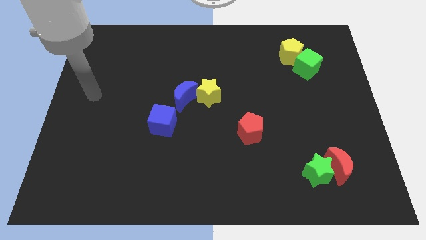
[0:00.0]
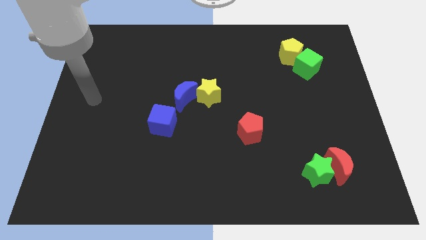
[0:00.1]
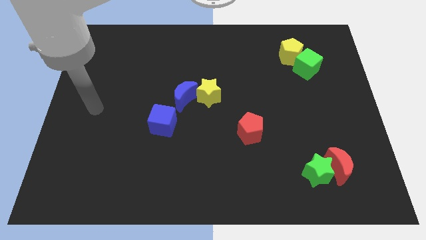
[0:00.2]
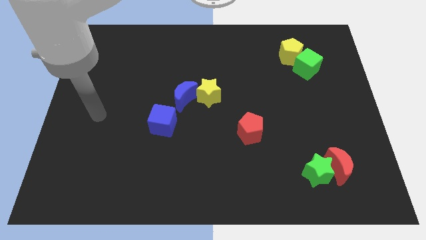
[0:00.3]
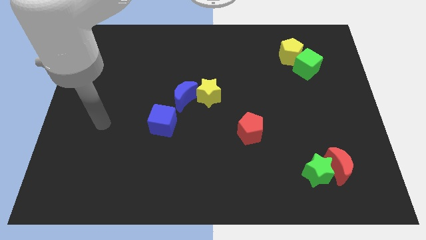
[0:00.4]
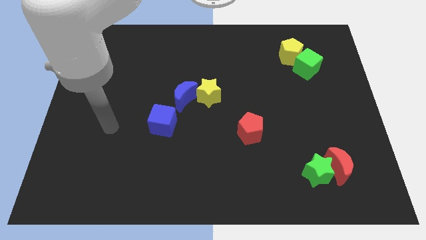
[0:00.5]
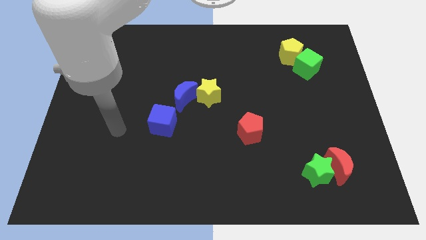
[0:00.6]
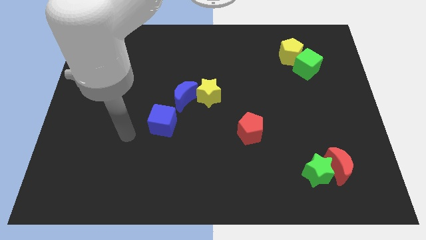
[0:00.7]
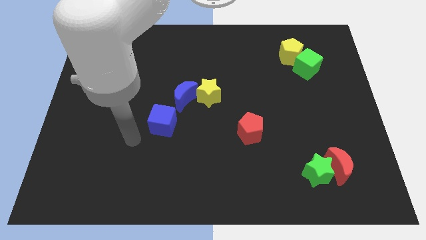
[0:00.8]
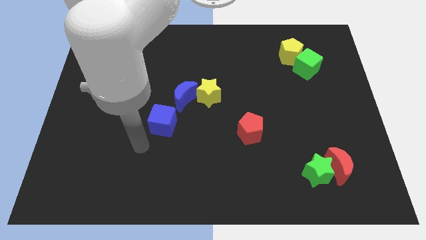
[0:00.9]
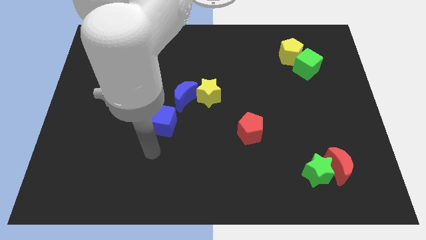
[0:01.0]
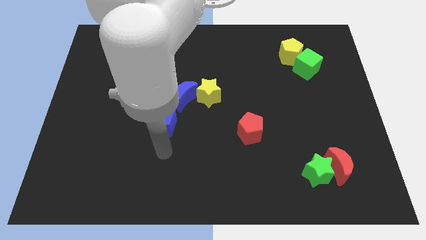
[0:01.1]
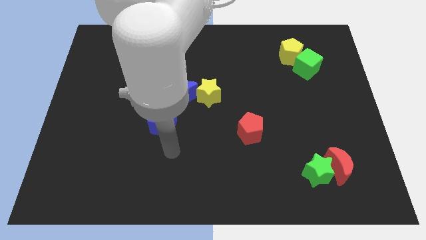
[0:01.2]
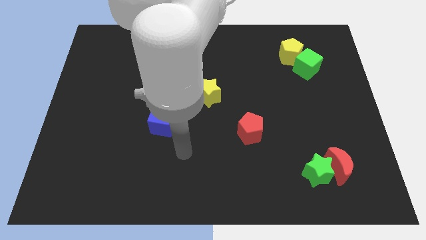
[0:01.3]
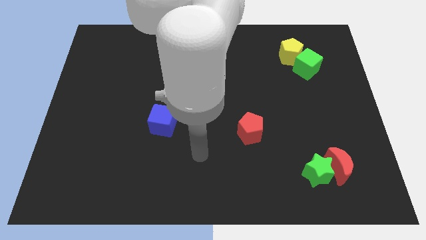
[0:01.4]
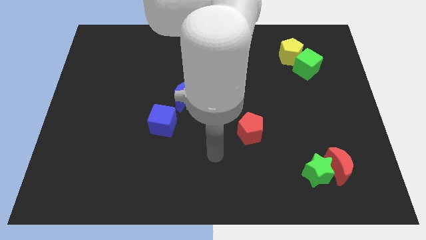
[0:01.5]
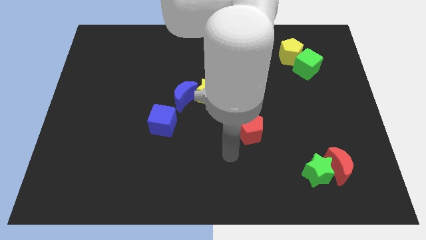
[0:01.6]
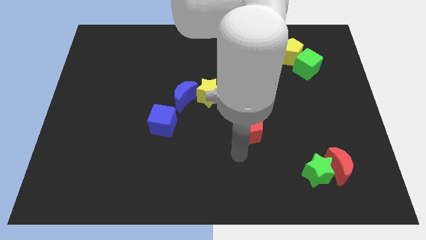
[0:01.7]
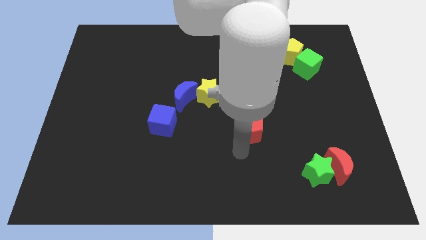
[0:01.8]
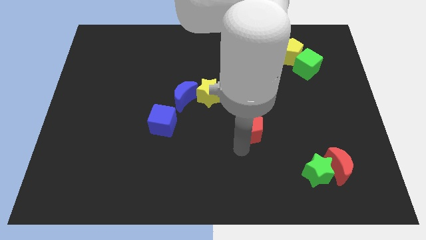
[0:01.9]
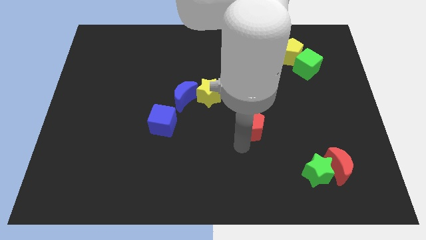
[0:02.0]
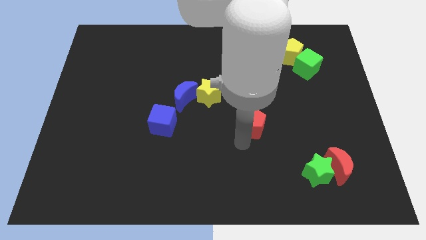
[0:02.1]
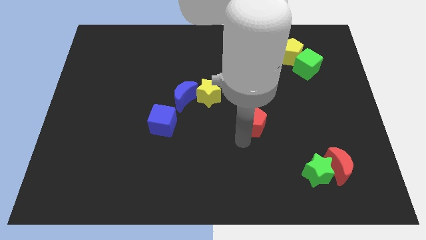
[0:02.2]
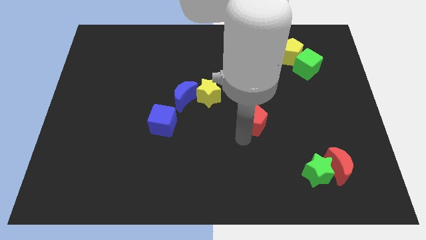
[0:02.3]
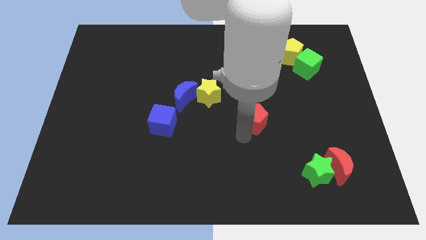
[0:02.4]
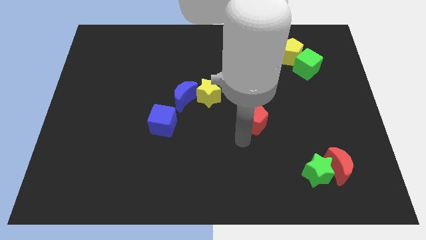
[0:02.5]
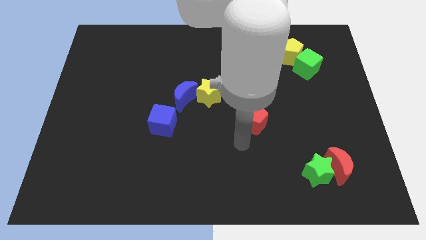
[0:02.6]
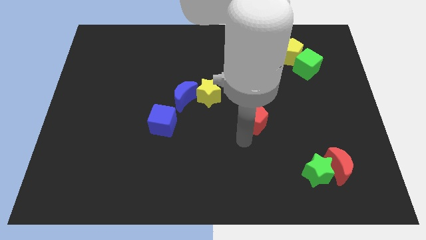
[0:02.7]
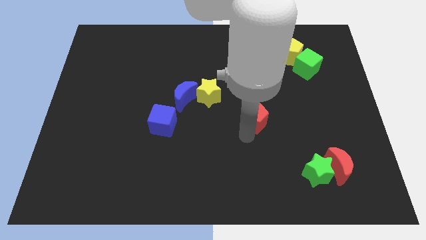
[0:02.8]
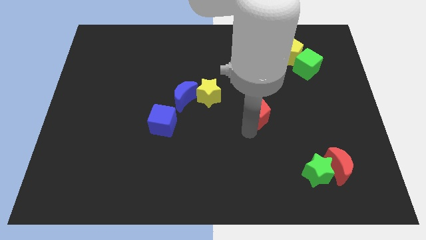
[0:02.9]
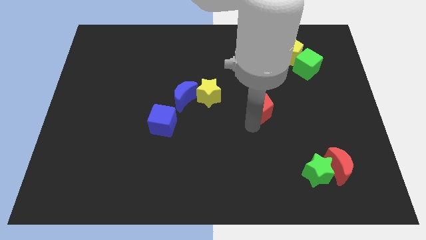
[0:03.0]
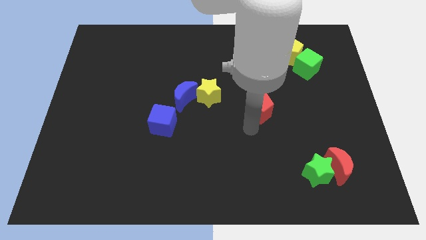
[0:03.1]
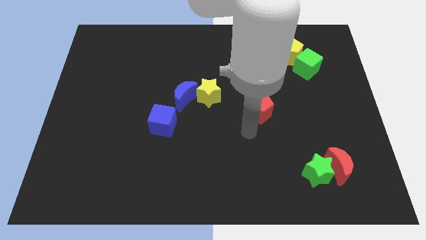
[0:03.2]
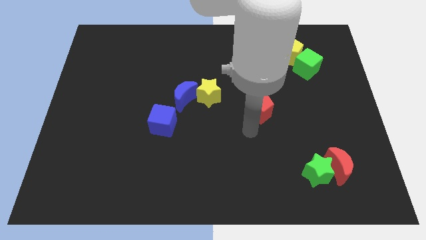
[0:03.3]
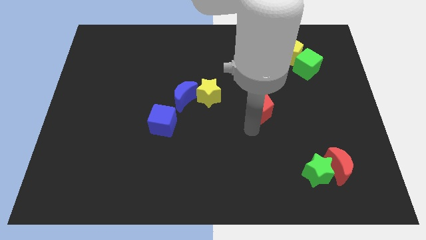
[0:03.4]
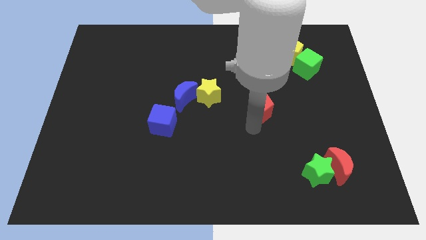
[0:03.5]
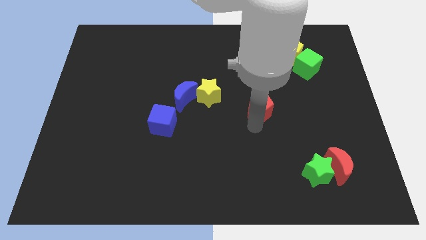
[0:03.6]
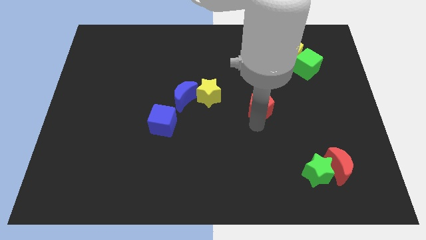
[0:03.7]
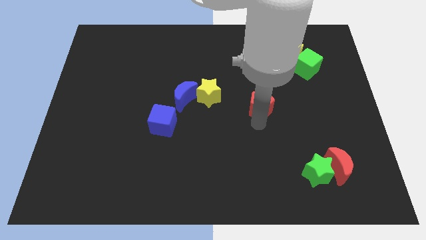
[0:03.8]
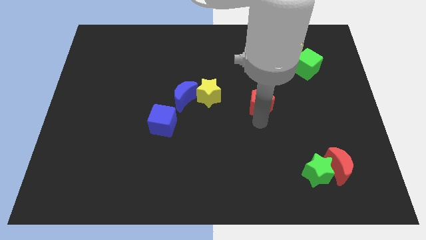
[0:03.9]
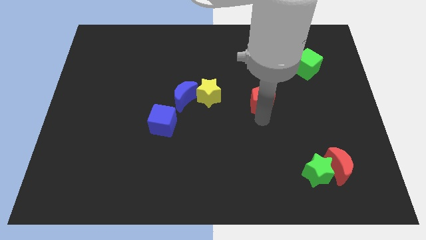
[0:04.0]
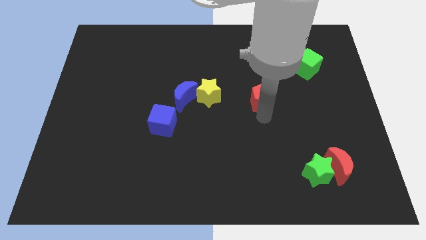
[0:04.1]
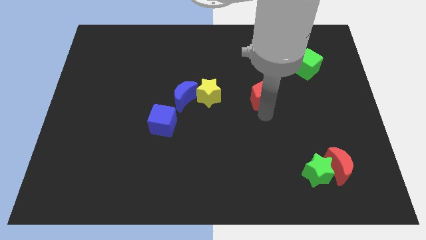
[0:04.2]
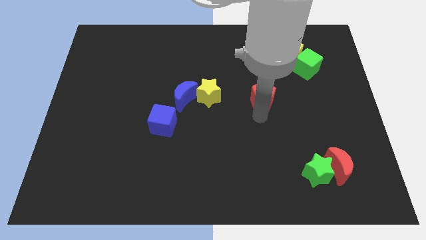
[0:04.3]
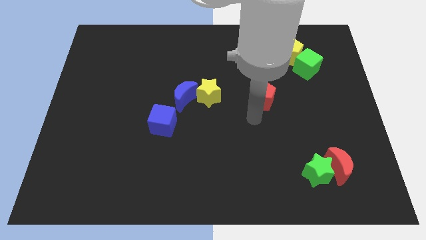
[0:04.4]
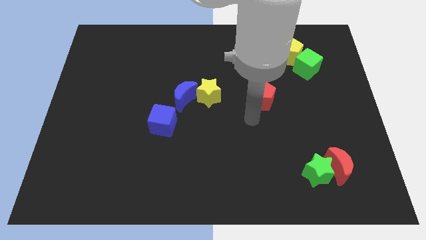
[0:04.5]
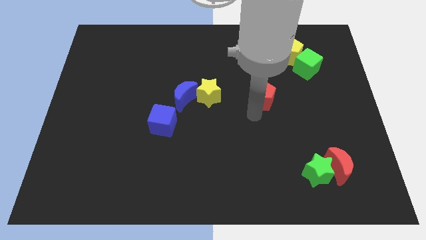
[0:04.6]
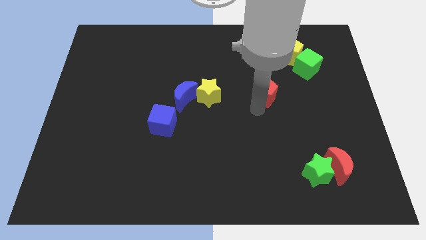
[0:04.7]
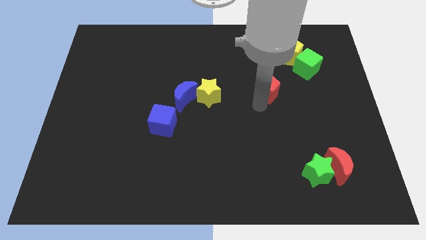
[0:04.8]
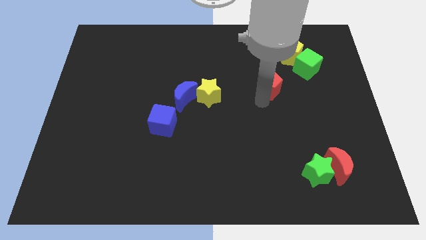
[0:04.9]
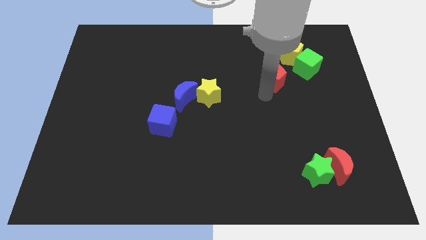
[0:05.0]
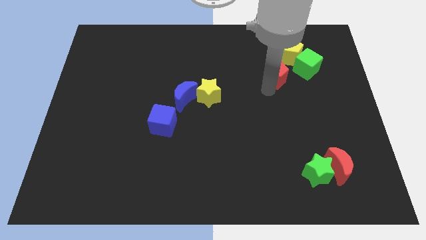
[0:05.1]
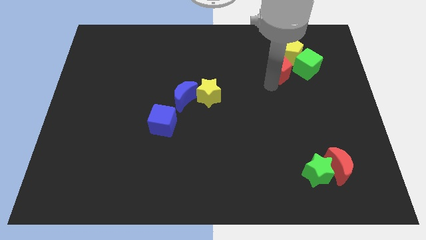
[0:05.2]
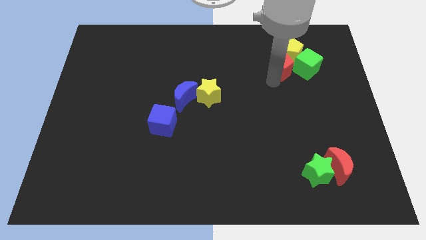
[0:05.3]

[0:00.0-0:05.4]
move the red pentagon close to the yellow pentagon

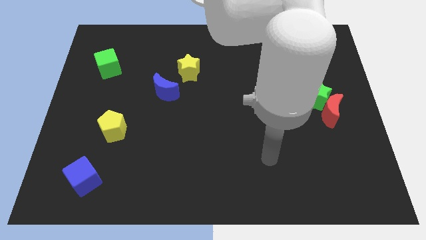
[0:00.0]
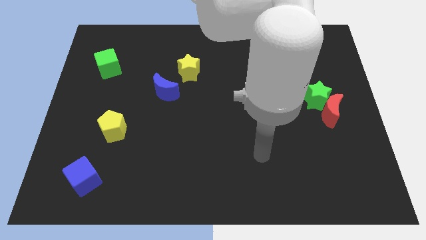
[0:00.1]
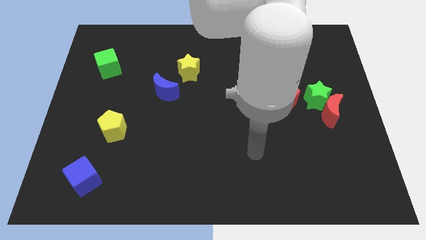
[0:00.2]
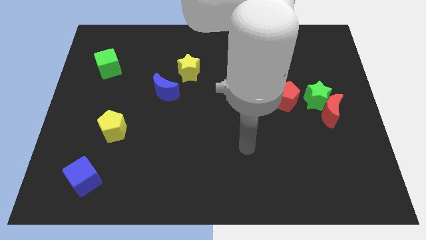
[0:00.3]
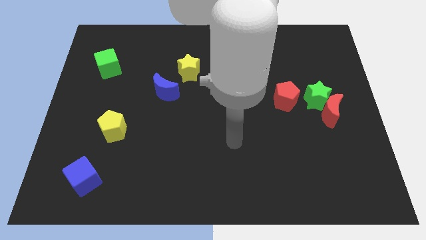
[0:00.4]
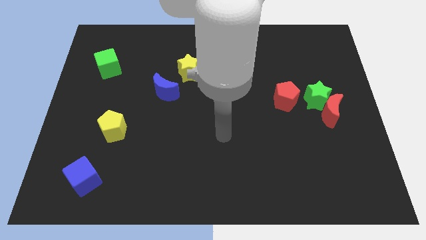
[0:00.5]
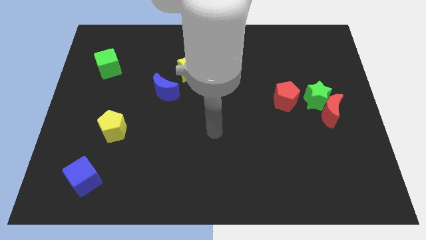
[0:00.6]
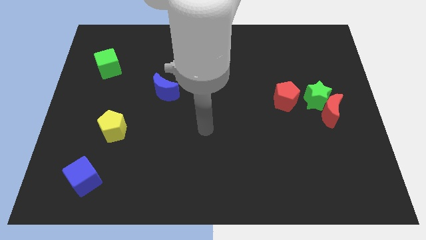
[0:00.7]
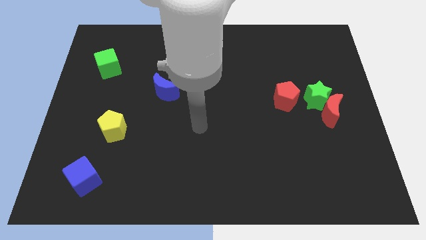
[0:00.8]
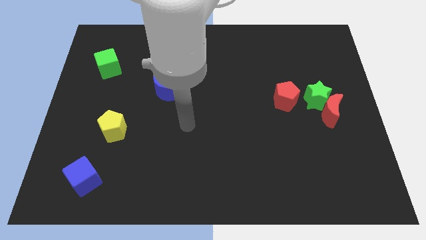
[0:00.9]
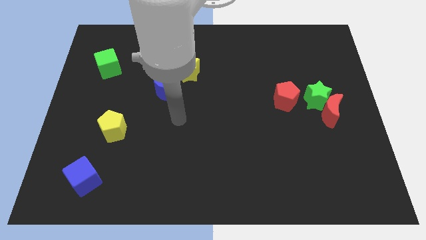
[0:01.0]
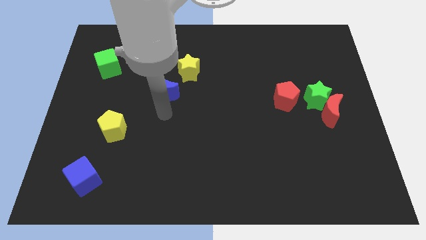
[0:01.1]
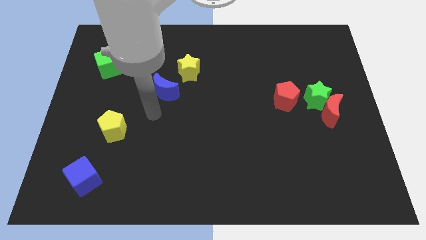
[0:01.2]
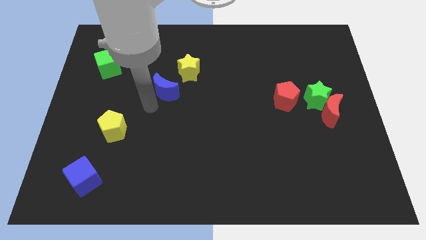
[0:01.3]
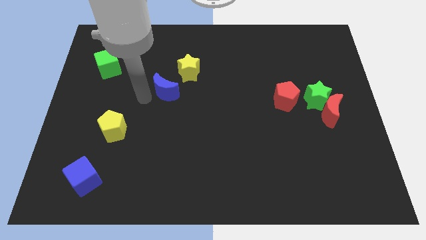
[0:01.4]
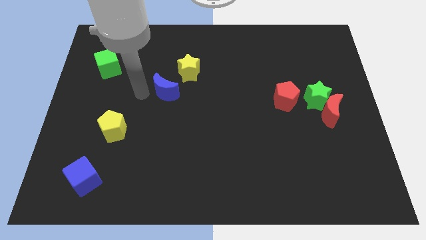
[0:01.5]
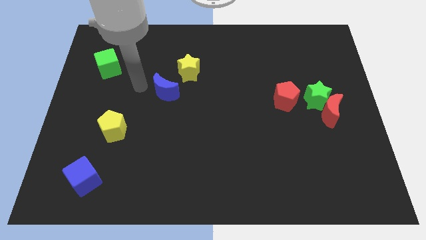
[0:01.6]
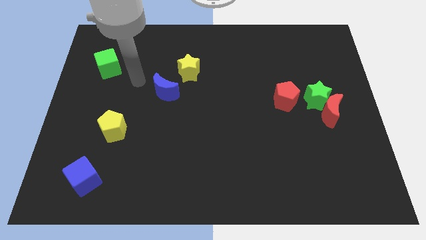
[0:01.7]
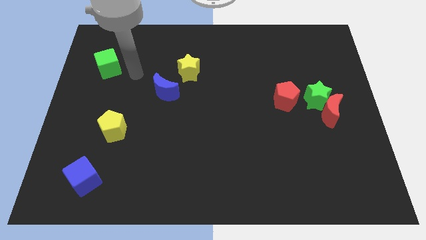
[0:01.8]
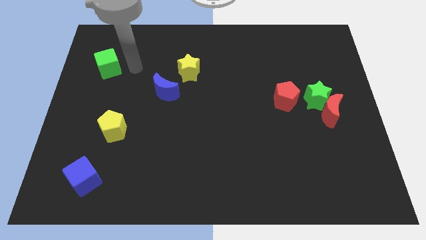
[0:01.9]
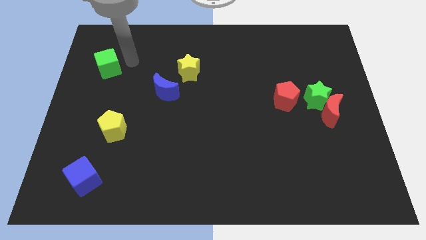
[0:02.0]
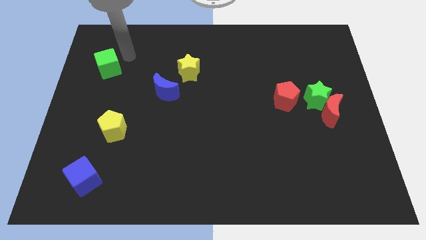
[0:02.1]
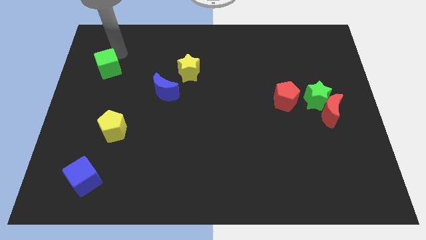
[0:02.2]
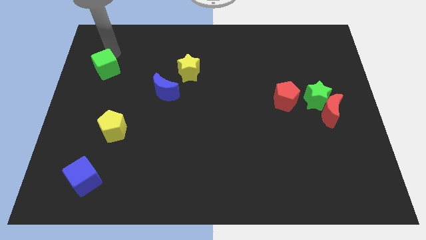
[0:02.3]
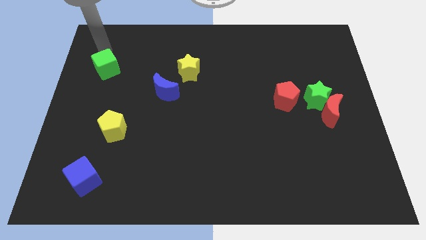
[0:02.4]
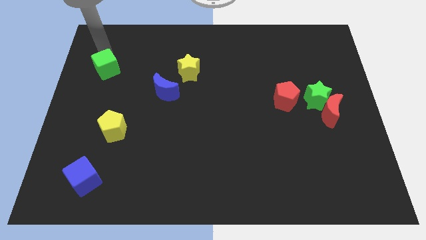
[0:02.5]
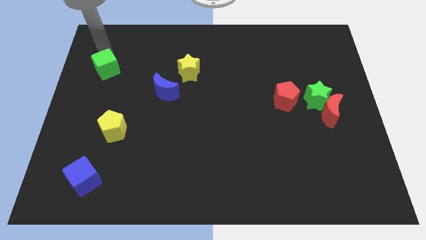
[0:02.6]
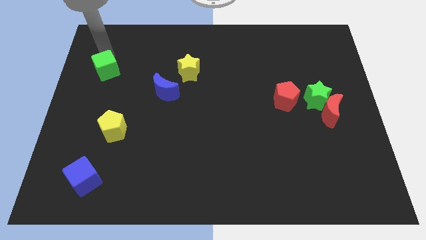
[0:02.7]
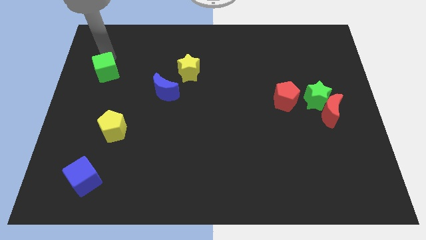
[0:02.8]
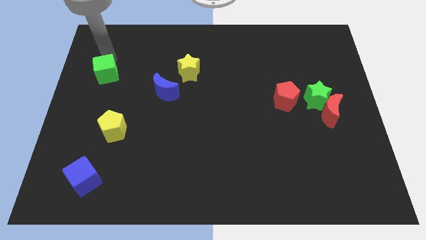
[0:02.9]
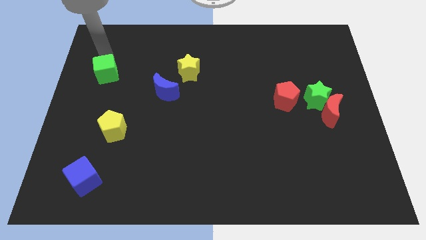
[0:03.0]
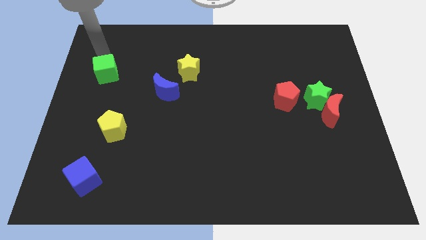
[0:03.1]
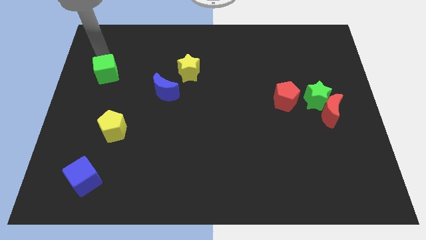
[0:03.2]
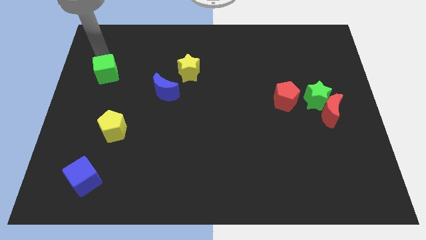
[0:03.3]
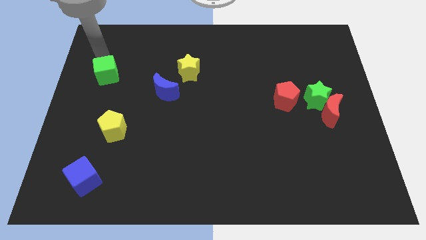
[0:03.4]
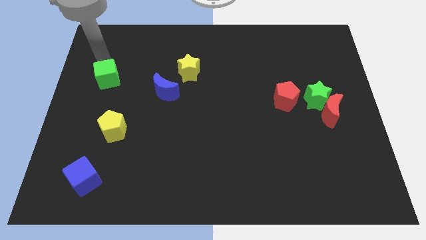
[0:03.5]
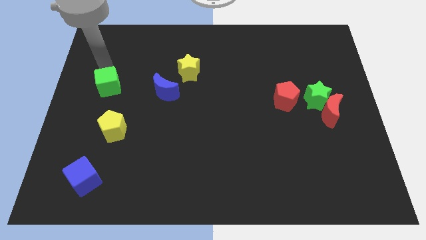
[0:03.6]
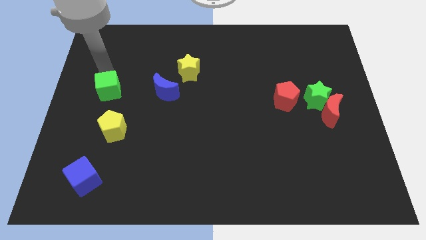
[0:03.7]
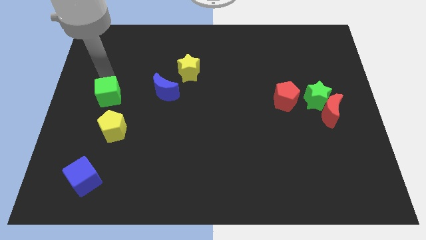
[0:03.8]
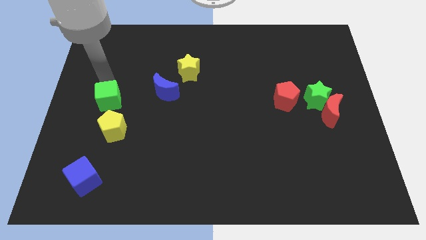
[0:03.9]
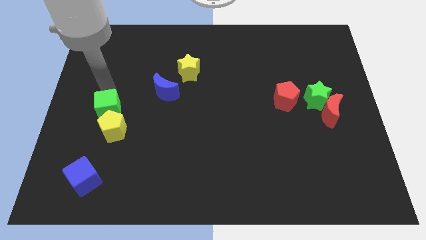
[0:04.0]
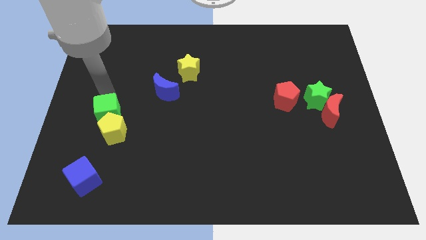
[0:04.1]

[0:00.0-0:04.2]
push the green cube close to the yellow pentagon
